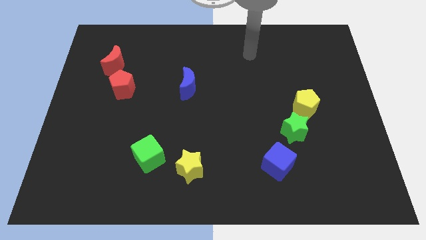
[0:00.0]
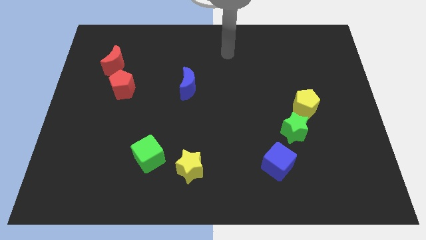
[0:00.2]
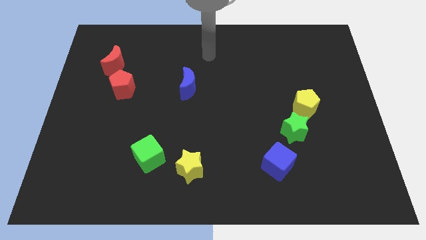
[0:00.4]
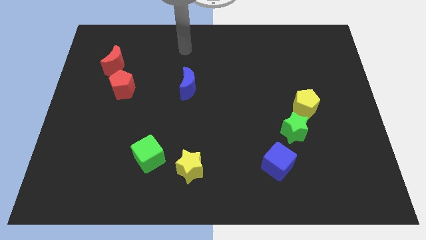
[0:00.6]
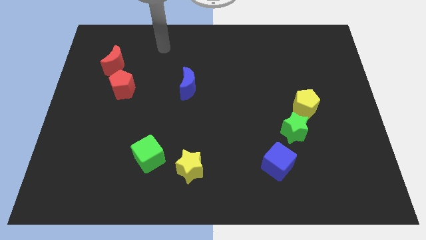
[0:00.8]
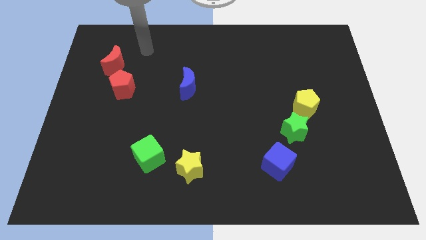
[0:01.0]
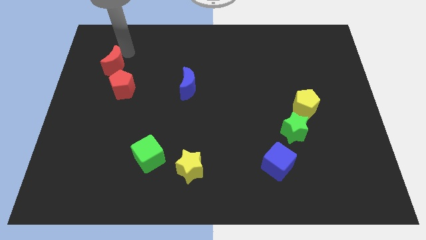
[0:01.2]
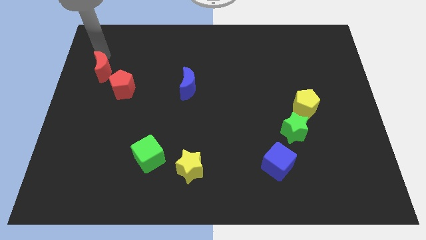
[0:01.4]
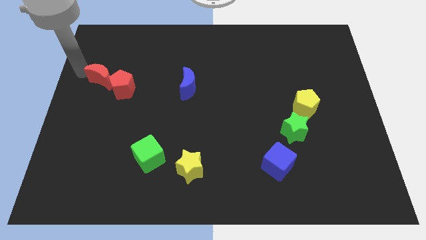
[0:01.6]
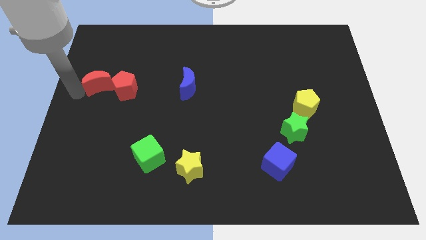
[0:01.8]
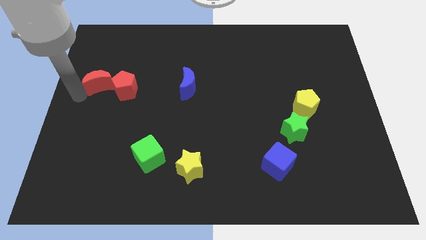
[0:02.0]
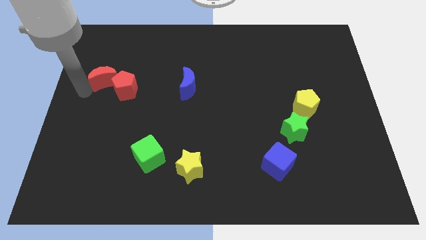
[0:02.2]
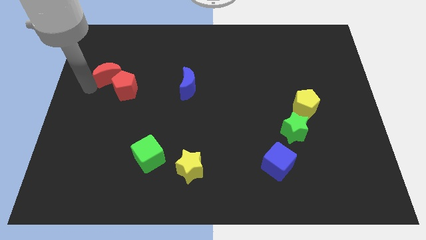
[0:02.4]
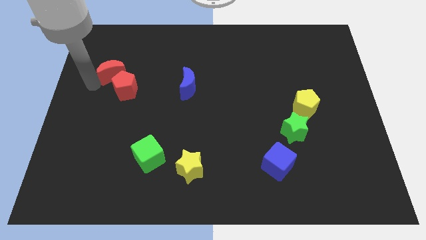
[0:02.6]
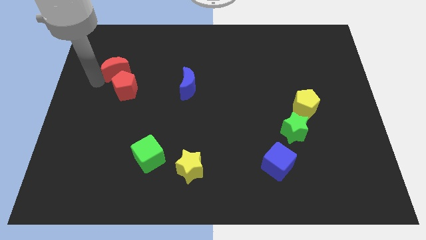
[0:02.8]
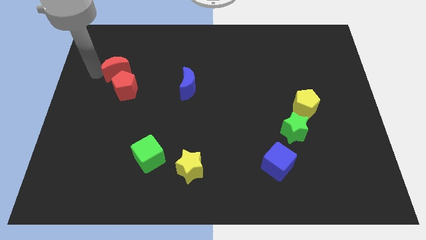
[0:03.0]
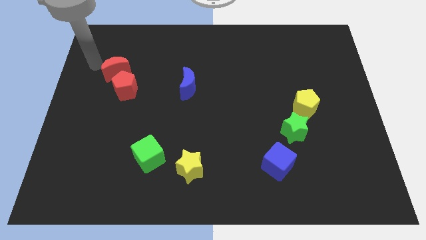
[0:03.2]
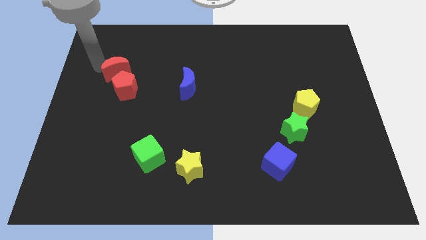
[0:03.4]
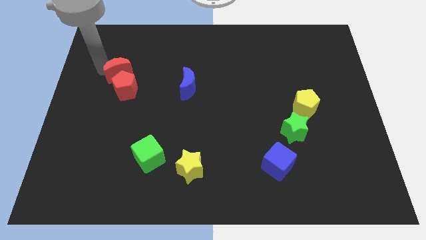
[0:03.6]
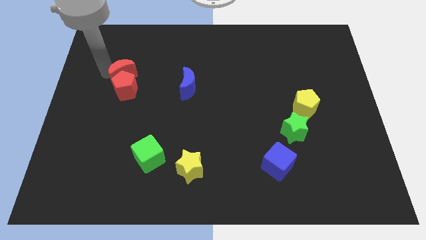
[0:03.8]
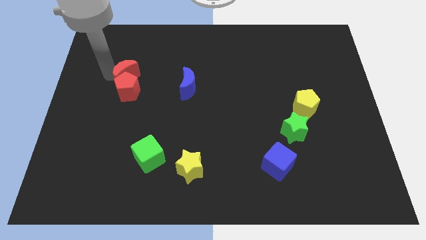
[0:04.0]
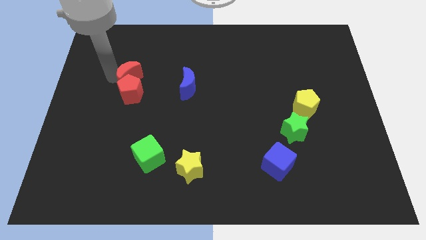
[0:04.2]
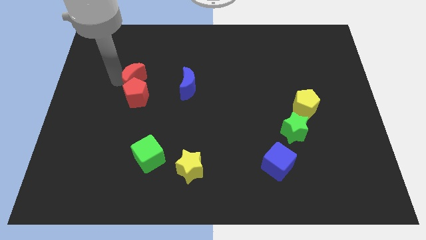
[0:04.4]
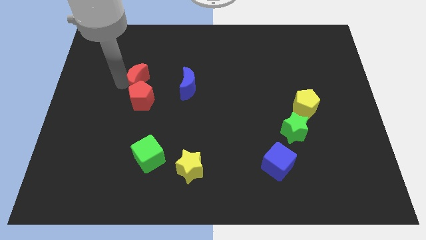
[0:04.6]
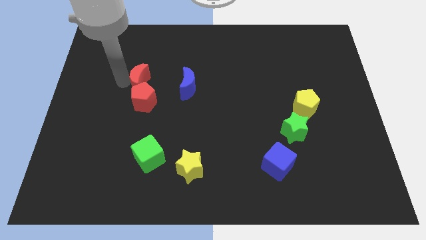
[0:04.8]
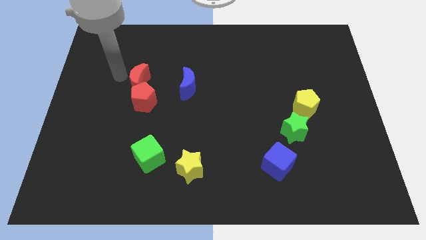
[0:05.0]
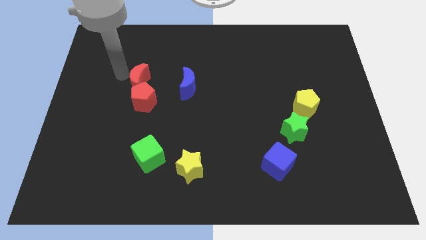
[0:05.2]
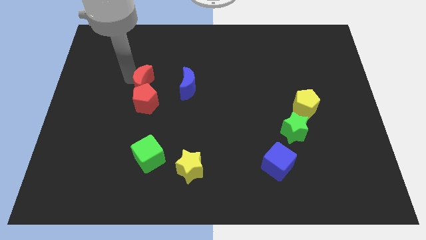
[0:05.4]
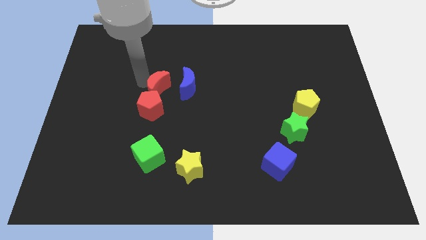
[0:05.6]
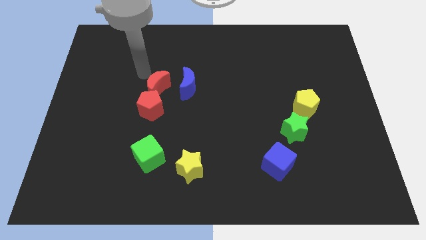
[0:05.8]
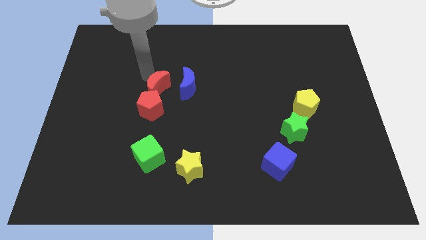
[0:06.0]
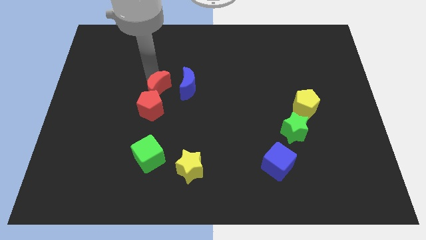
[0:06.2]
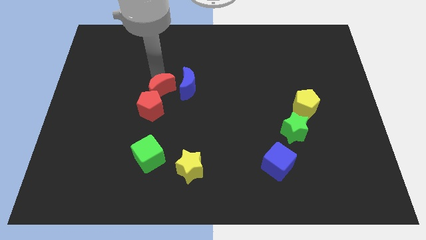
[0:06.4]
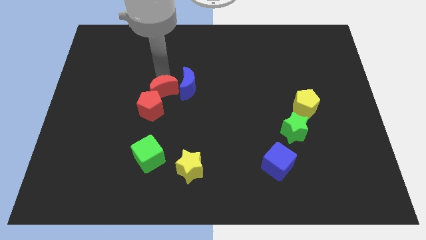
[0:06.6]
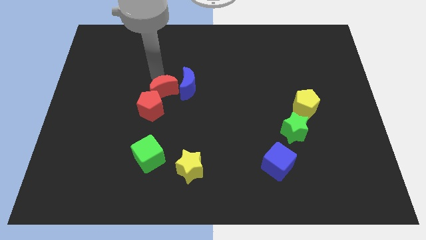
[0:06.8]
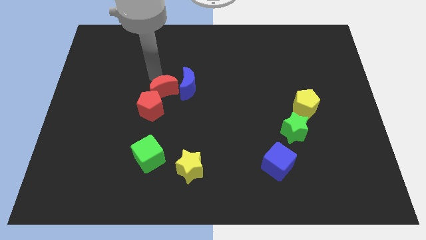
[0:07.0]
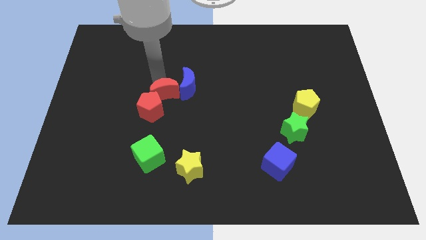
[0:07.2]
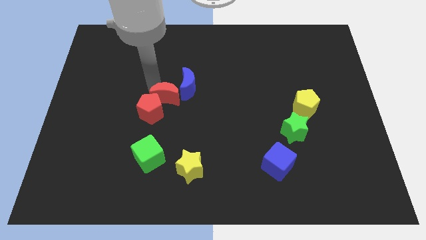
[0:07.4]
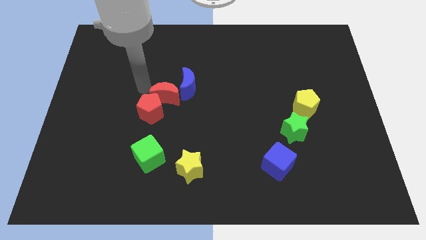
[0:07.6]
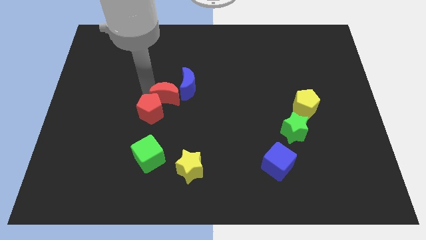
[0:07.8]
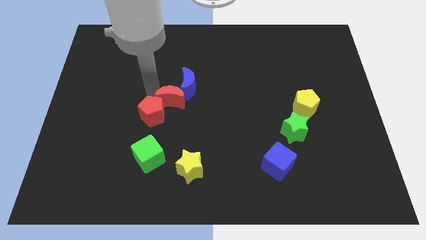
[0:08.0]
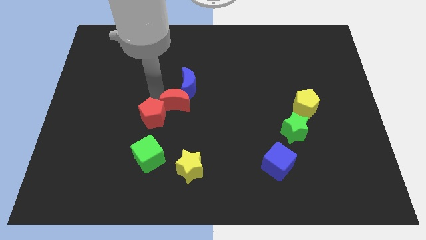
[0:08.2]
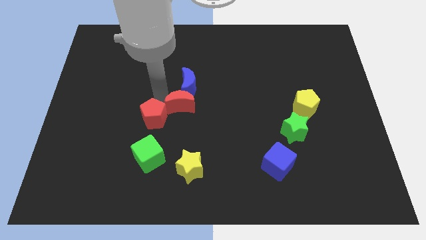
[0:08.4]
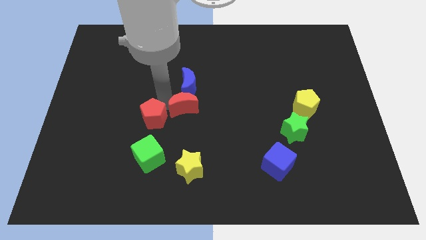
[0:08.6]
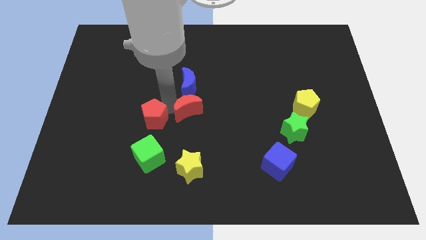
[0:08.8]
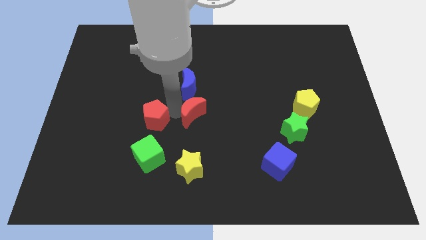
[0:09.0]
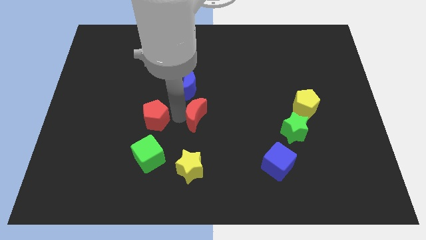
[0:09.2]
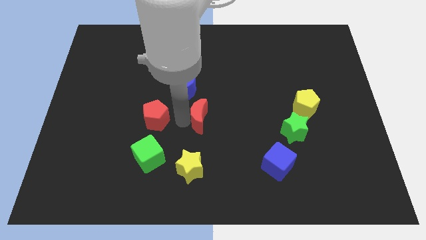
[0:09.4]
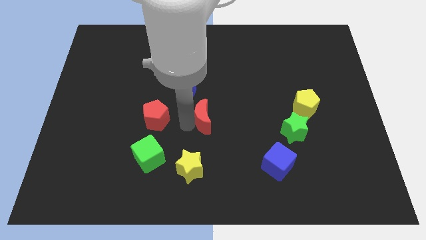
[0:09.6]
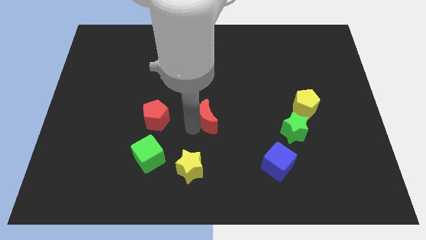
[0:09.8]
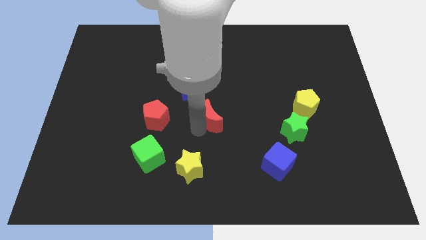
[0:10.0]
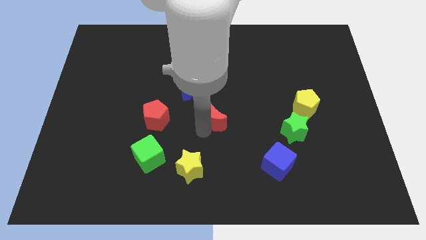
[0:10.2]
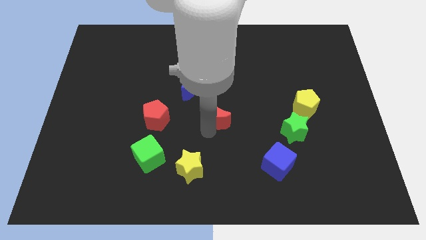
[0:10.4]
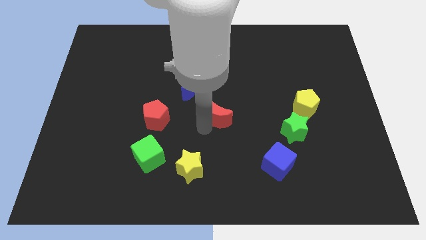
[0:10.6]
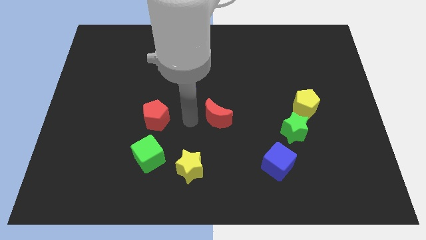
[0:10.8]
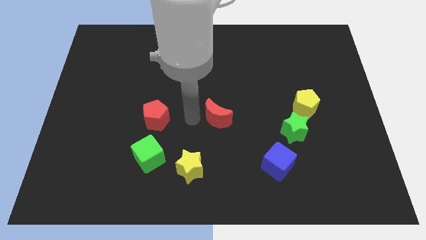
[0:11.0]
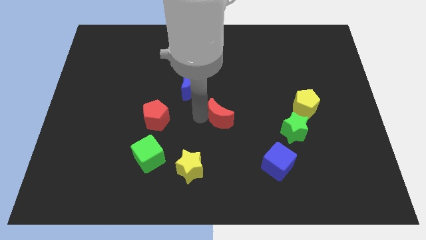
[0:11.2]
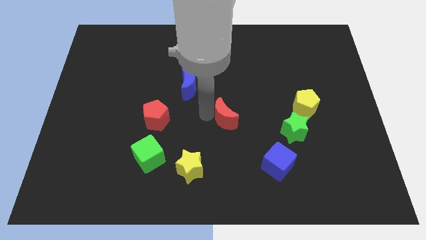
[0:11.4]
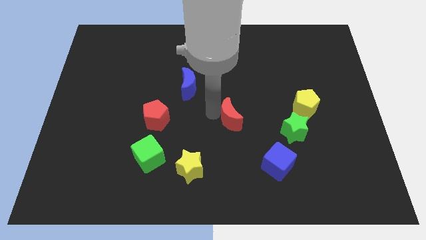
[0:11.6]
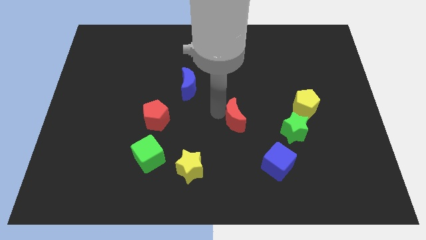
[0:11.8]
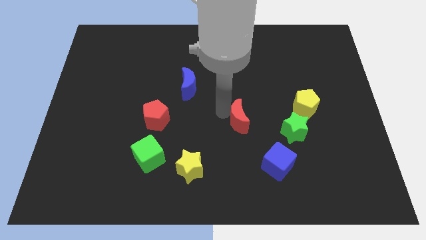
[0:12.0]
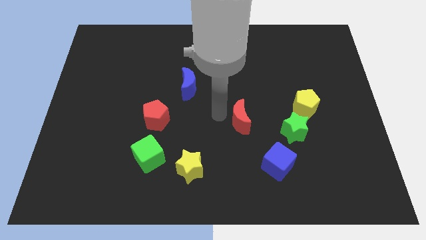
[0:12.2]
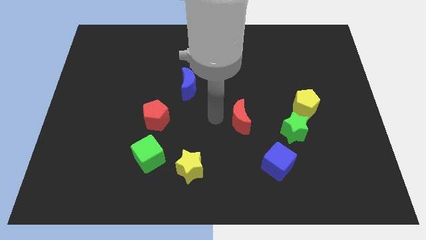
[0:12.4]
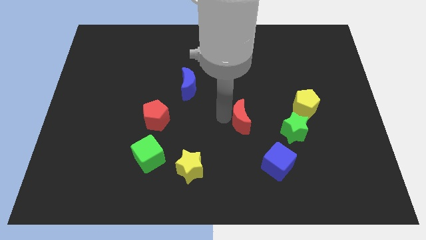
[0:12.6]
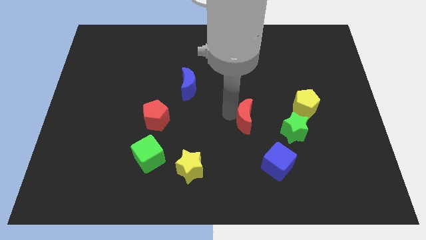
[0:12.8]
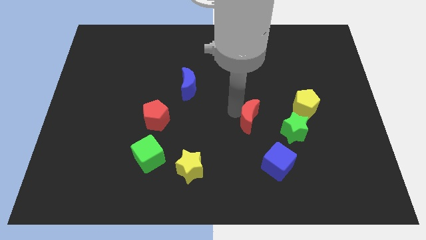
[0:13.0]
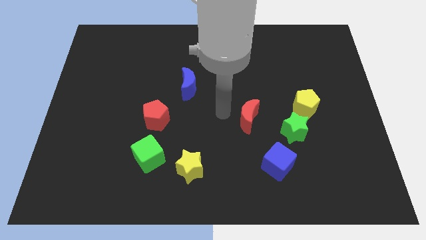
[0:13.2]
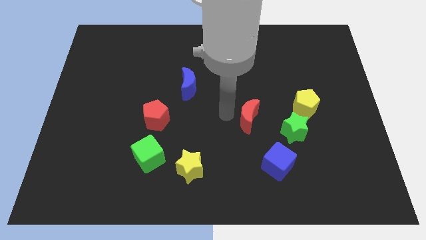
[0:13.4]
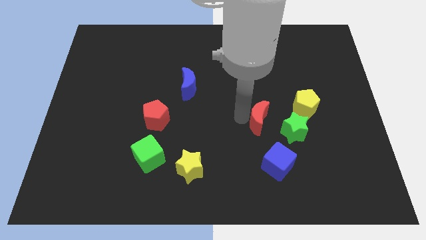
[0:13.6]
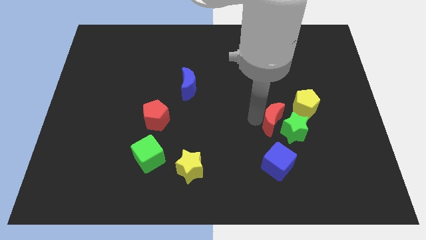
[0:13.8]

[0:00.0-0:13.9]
slide the red moon to the green star

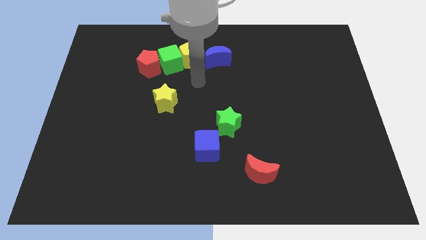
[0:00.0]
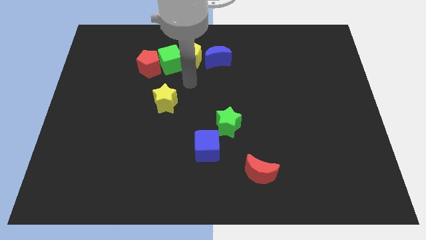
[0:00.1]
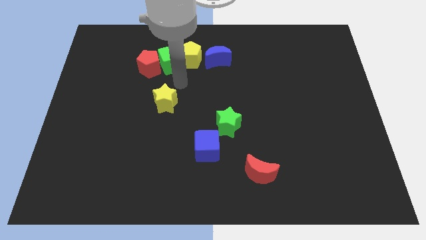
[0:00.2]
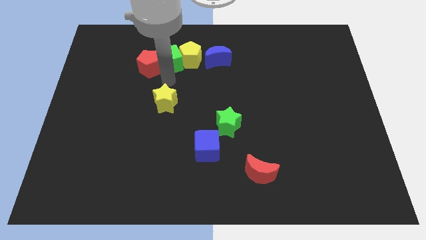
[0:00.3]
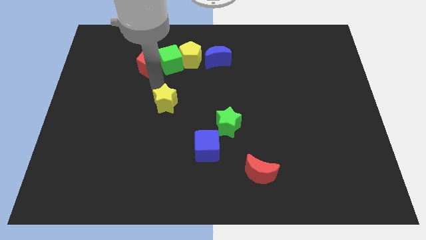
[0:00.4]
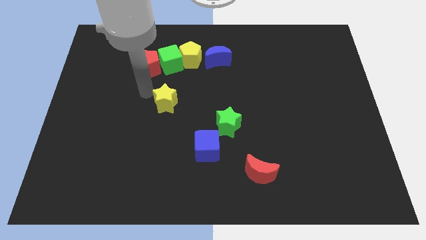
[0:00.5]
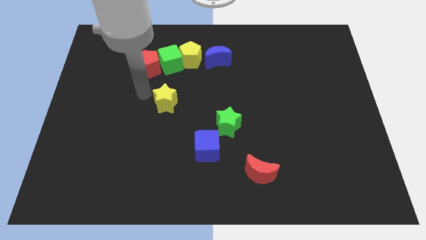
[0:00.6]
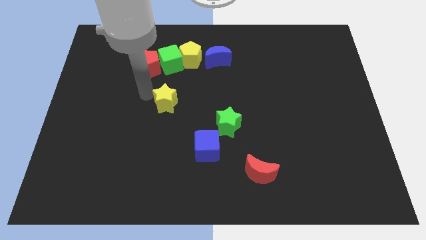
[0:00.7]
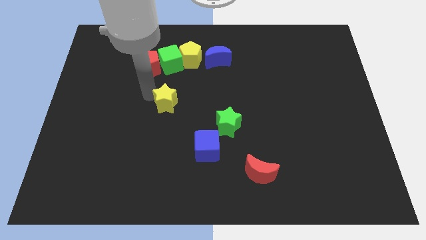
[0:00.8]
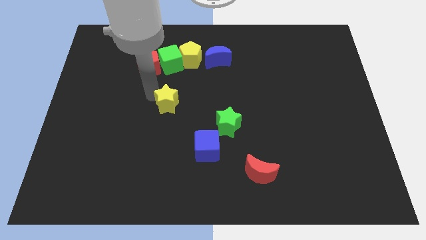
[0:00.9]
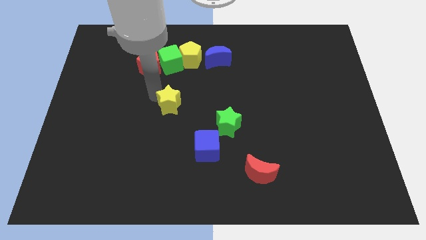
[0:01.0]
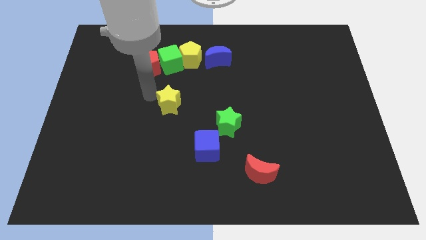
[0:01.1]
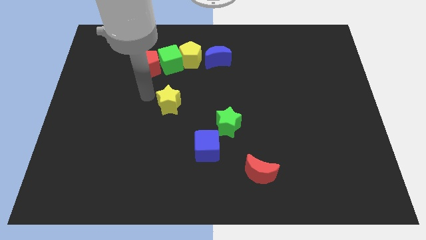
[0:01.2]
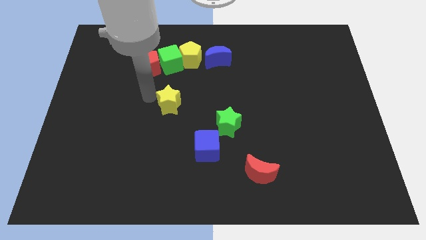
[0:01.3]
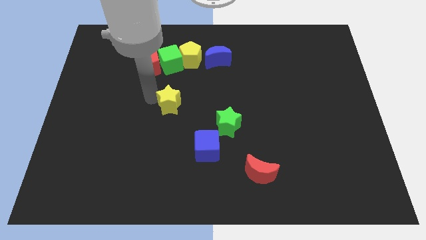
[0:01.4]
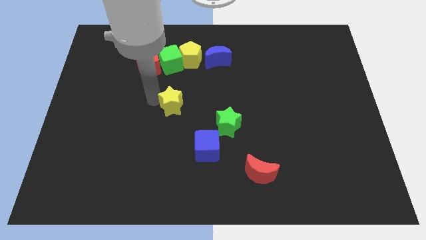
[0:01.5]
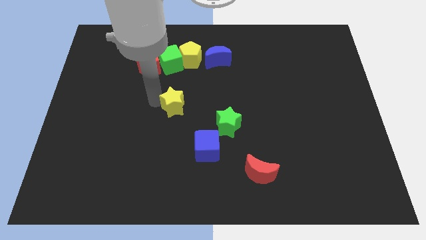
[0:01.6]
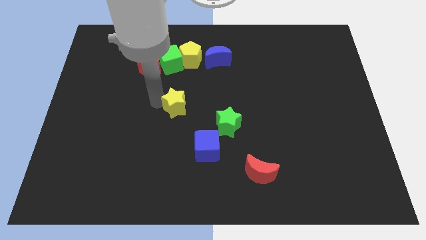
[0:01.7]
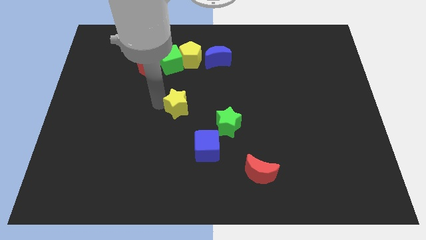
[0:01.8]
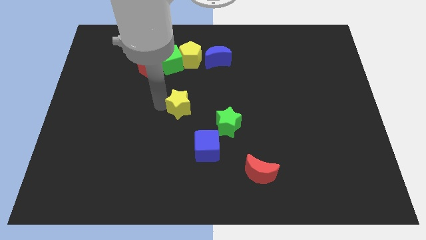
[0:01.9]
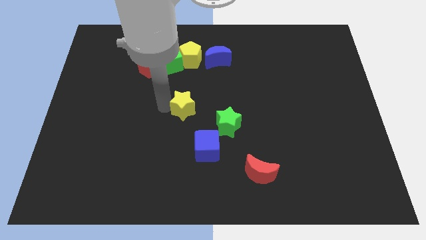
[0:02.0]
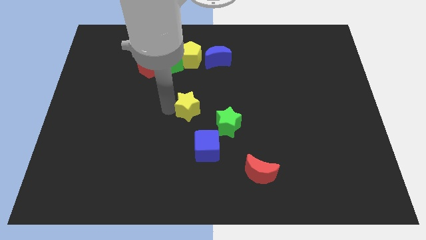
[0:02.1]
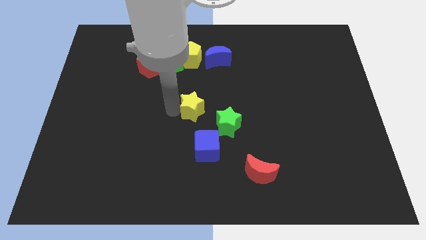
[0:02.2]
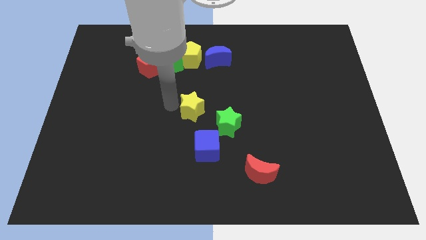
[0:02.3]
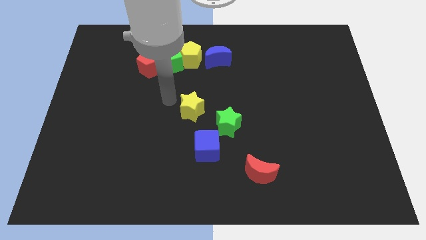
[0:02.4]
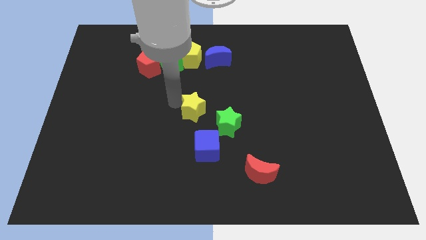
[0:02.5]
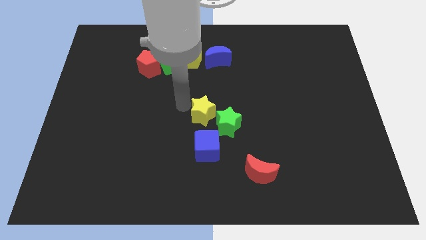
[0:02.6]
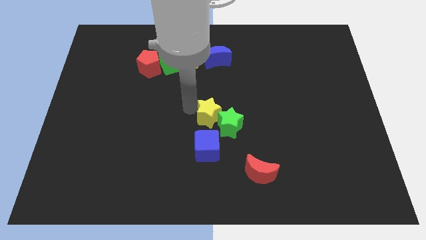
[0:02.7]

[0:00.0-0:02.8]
move the yellow star next to the green star
